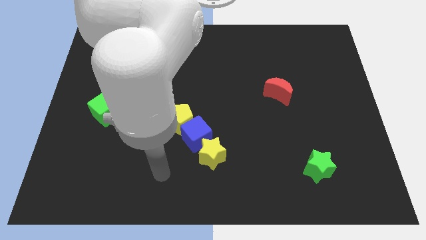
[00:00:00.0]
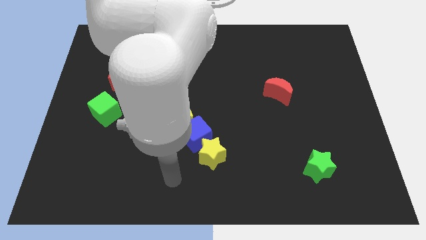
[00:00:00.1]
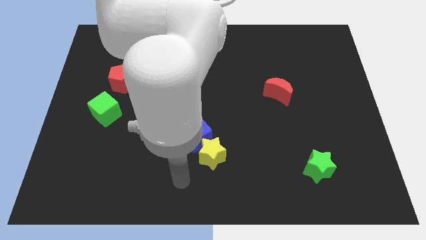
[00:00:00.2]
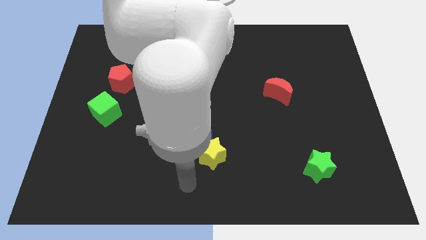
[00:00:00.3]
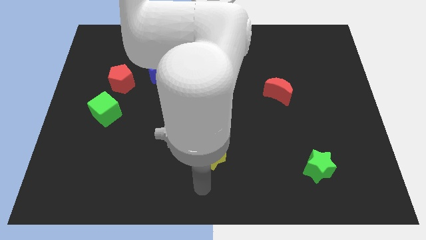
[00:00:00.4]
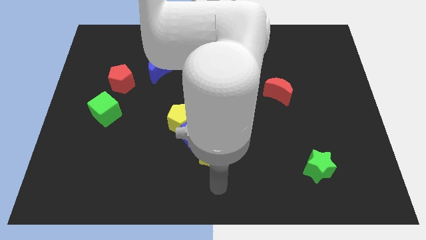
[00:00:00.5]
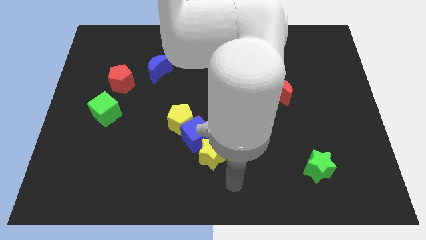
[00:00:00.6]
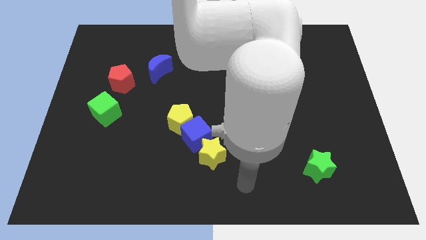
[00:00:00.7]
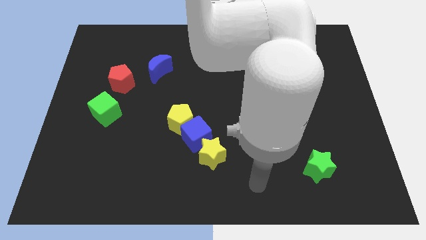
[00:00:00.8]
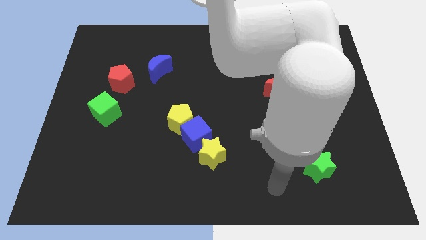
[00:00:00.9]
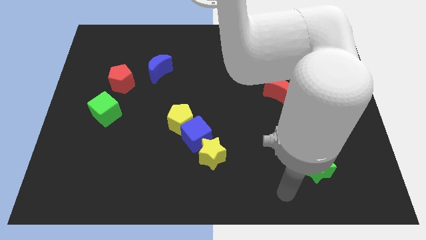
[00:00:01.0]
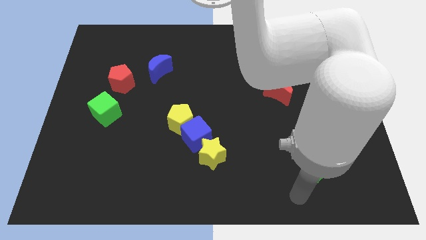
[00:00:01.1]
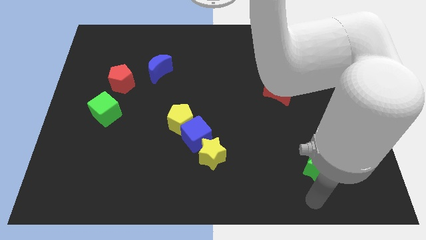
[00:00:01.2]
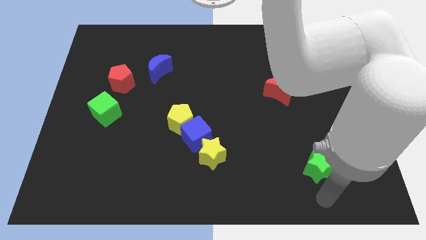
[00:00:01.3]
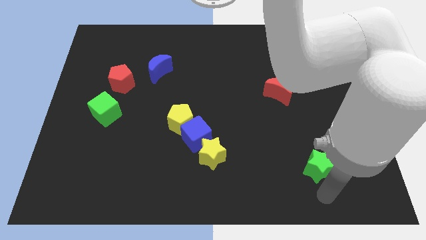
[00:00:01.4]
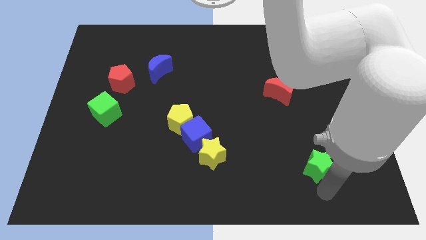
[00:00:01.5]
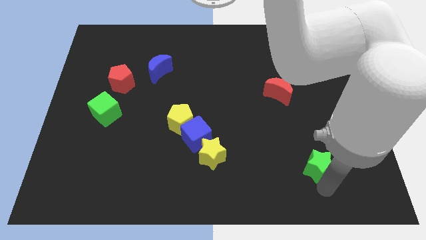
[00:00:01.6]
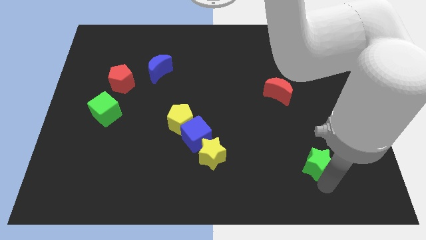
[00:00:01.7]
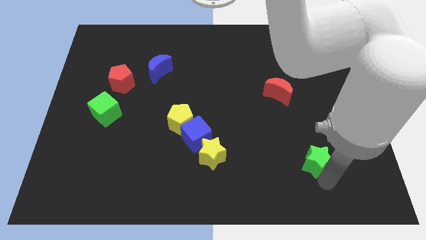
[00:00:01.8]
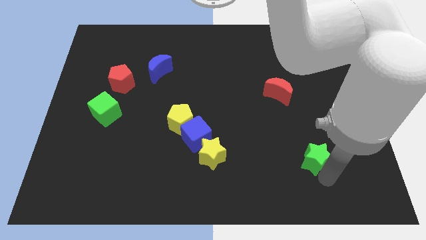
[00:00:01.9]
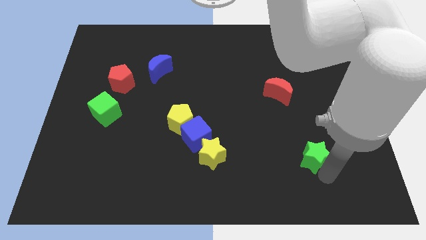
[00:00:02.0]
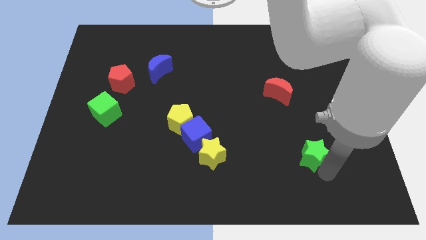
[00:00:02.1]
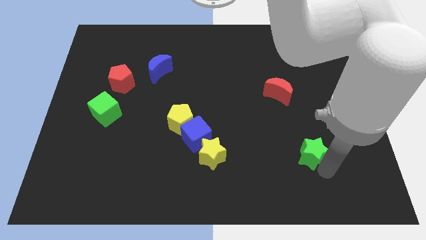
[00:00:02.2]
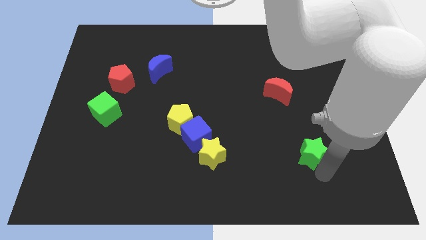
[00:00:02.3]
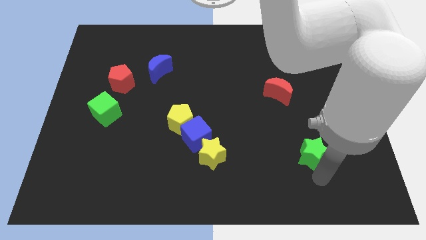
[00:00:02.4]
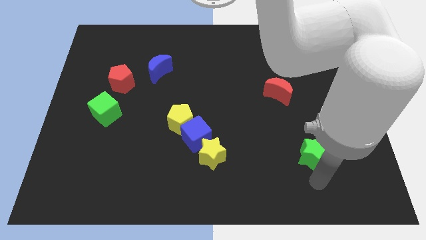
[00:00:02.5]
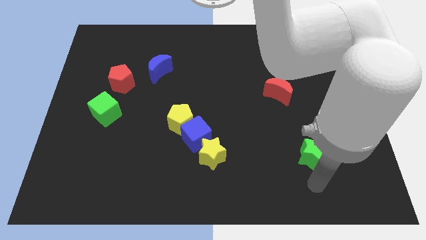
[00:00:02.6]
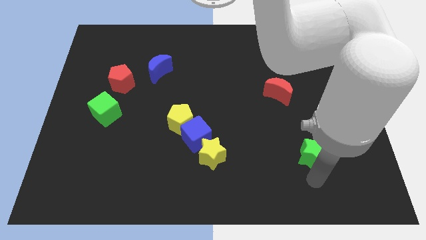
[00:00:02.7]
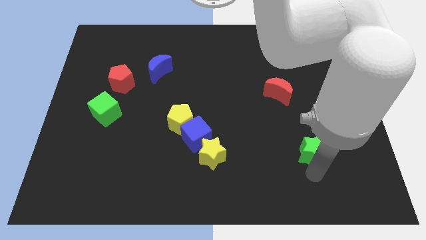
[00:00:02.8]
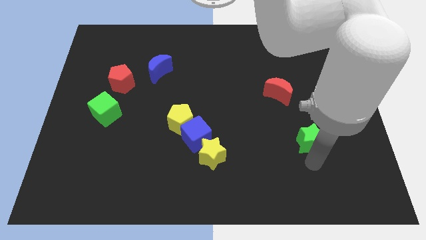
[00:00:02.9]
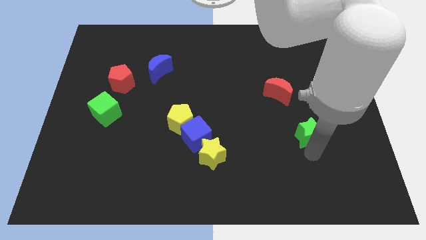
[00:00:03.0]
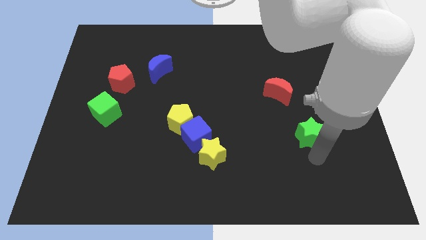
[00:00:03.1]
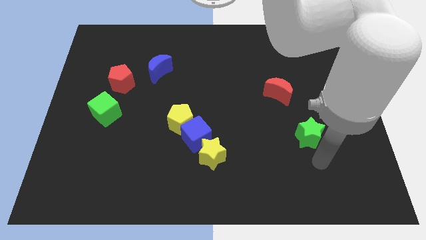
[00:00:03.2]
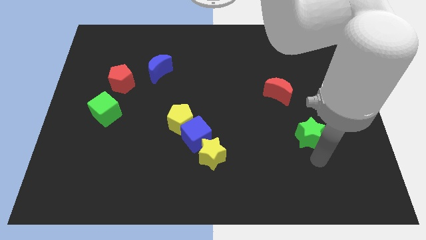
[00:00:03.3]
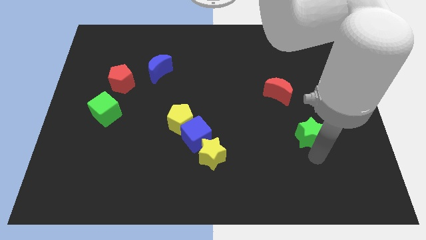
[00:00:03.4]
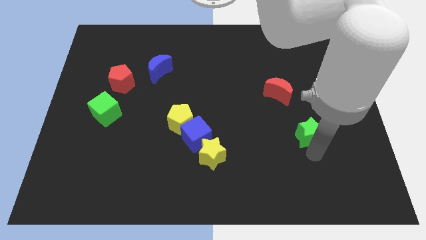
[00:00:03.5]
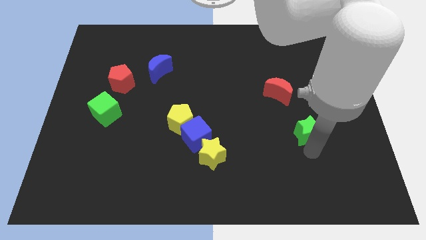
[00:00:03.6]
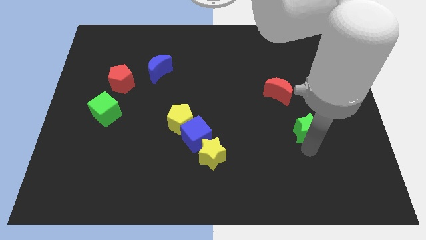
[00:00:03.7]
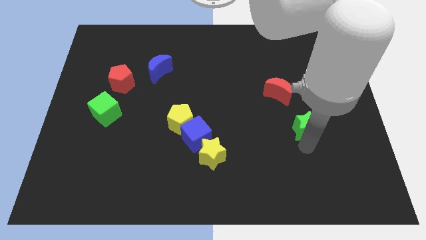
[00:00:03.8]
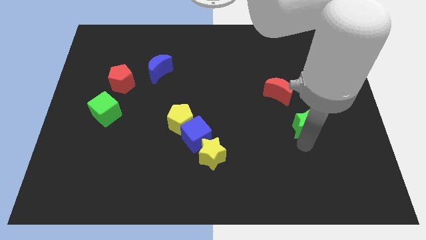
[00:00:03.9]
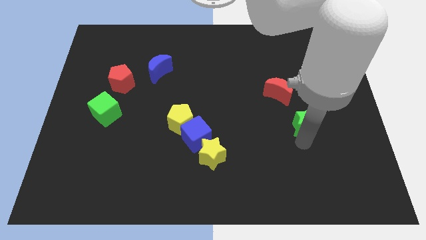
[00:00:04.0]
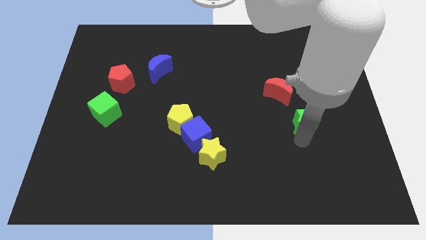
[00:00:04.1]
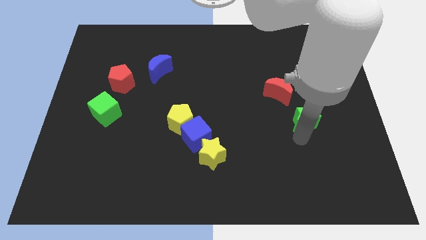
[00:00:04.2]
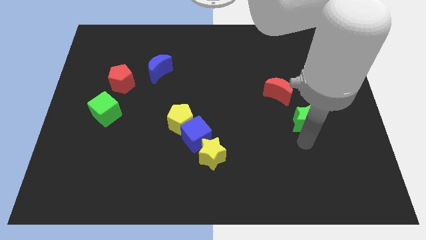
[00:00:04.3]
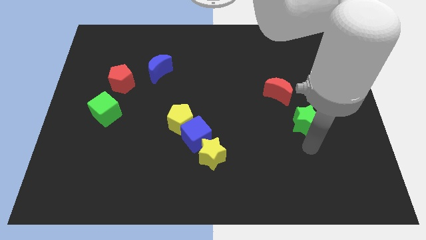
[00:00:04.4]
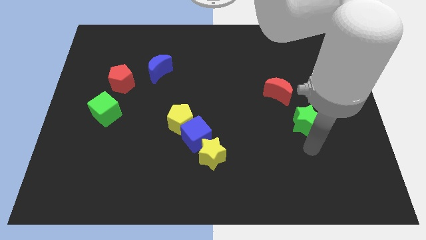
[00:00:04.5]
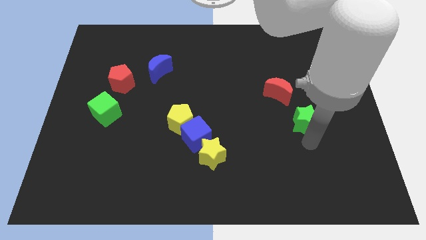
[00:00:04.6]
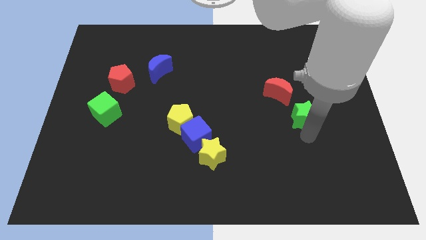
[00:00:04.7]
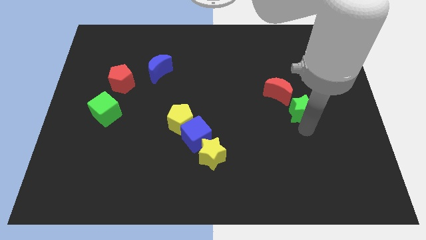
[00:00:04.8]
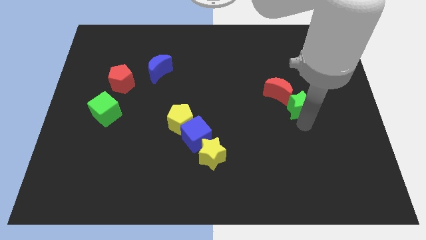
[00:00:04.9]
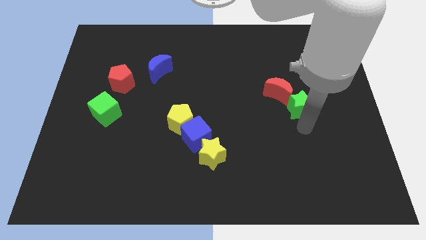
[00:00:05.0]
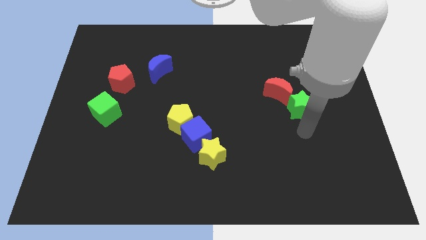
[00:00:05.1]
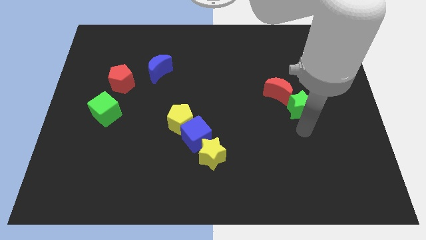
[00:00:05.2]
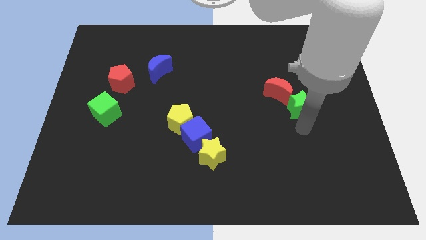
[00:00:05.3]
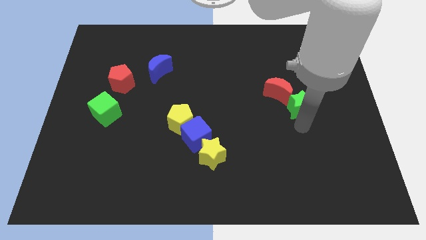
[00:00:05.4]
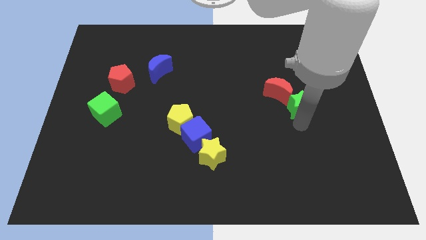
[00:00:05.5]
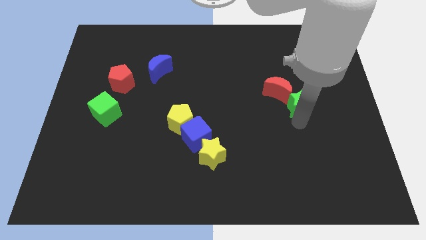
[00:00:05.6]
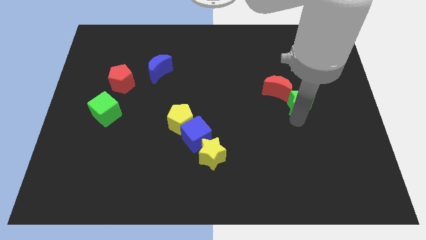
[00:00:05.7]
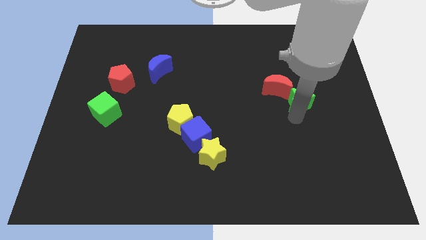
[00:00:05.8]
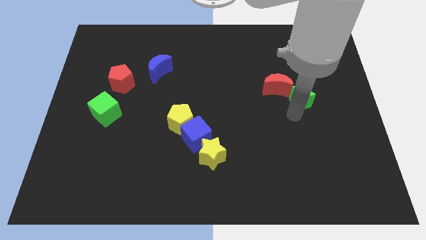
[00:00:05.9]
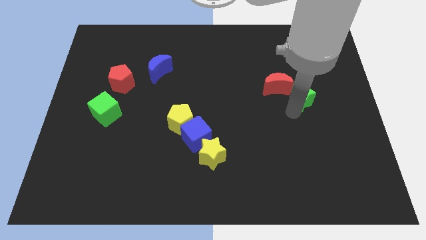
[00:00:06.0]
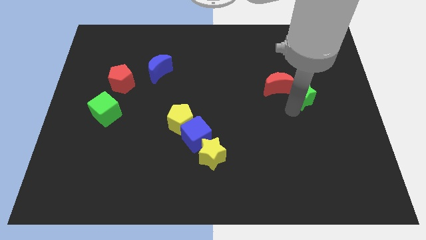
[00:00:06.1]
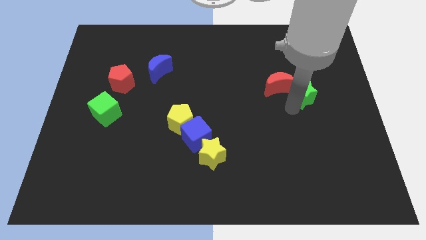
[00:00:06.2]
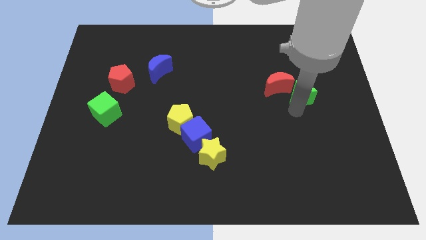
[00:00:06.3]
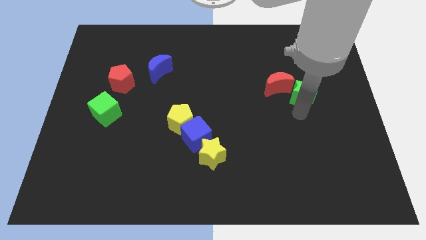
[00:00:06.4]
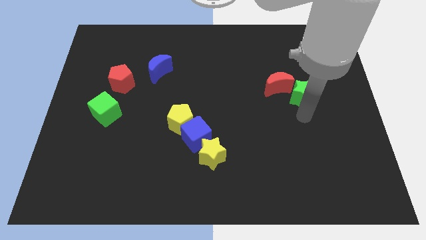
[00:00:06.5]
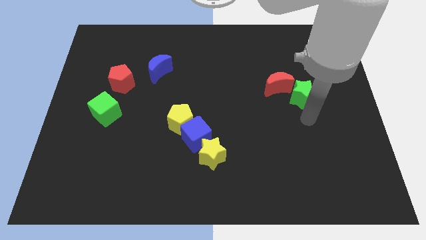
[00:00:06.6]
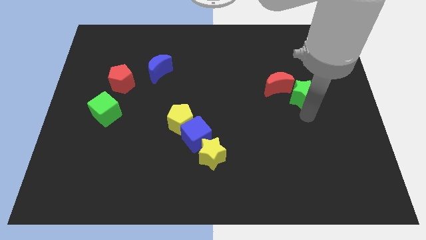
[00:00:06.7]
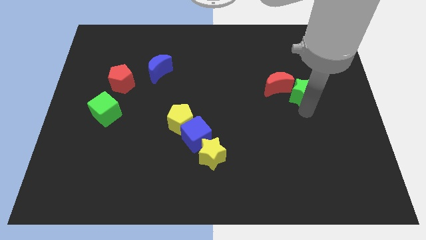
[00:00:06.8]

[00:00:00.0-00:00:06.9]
slide the green star up

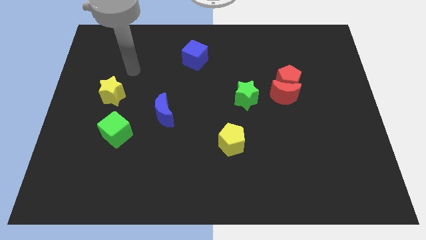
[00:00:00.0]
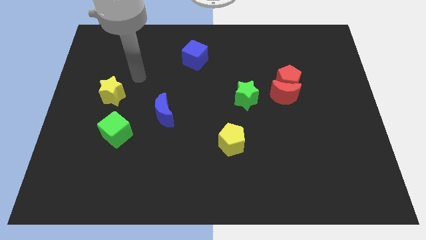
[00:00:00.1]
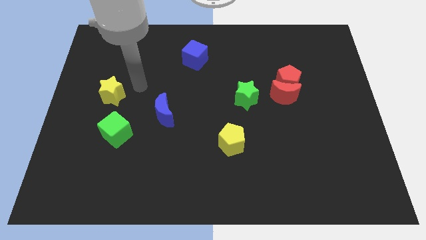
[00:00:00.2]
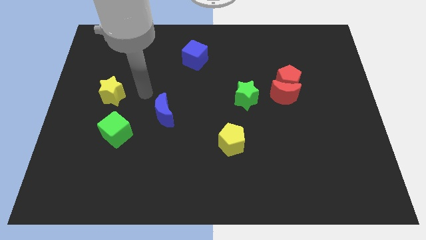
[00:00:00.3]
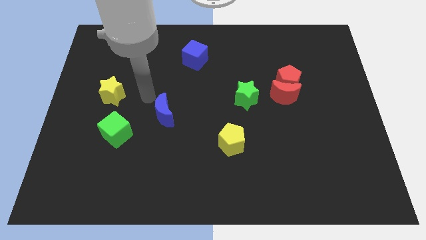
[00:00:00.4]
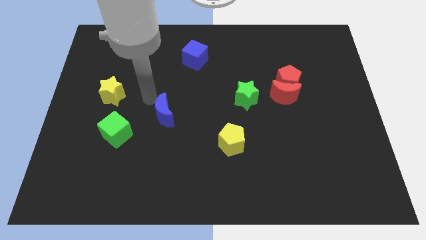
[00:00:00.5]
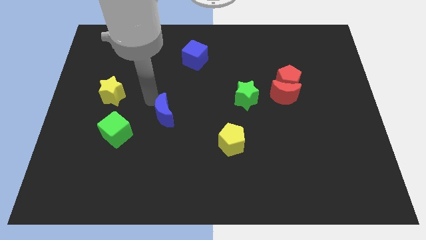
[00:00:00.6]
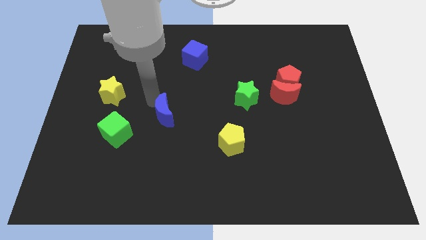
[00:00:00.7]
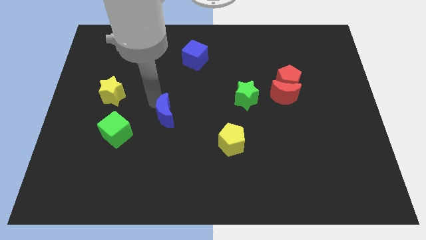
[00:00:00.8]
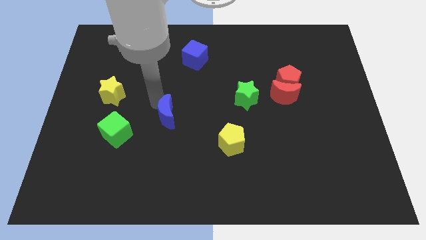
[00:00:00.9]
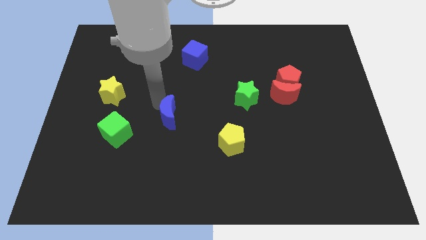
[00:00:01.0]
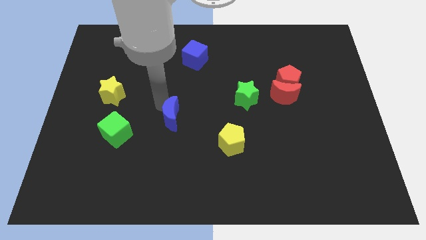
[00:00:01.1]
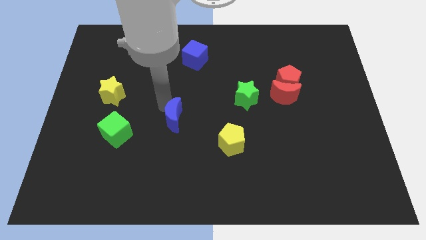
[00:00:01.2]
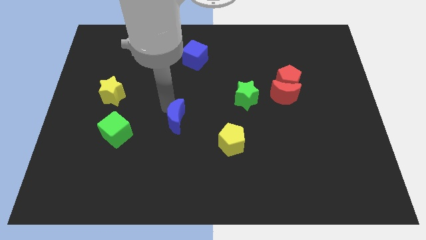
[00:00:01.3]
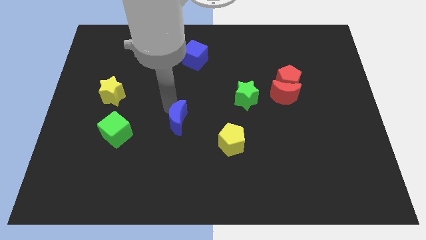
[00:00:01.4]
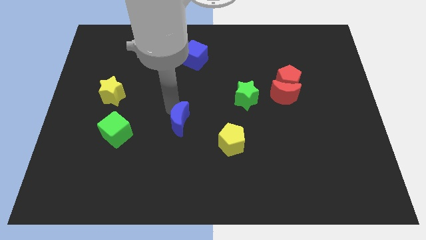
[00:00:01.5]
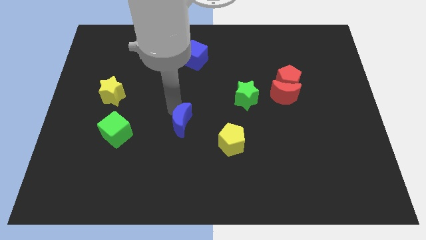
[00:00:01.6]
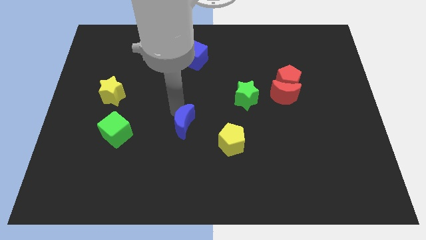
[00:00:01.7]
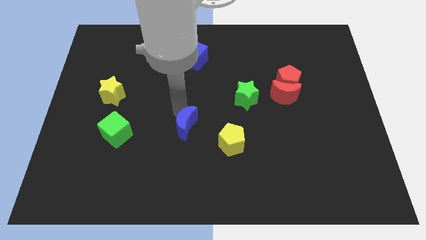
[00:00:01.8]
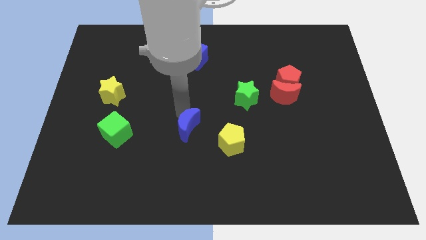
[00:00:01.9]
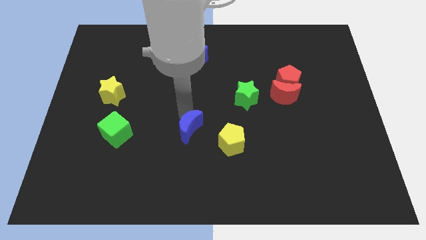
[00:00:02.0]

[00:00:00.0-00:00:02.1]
slightly slide the blue moon down and then to the right
